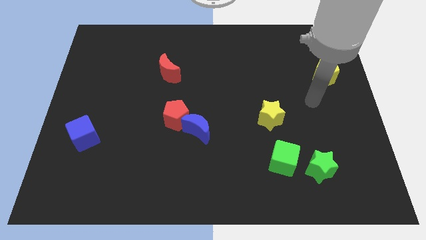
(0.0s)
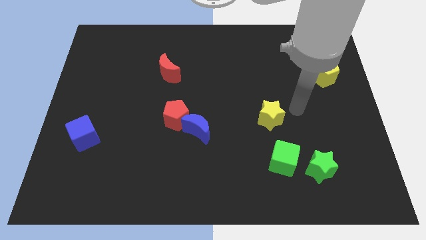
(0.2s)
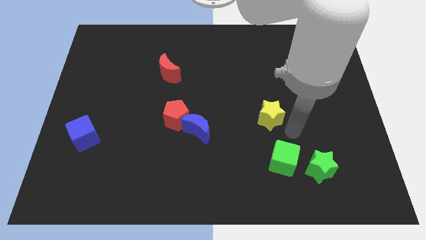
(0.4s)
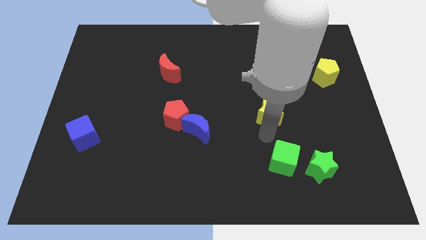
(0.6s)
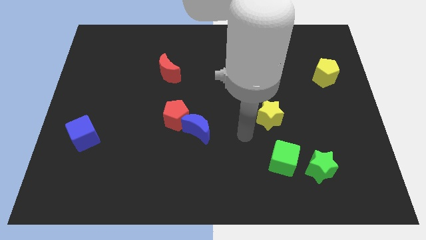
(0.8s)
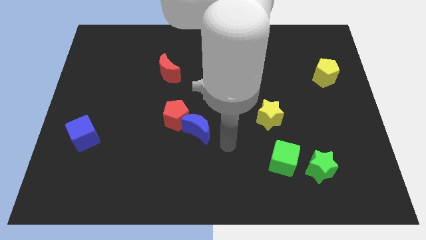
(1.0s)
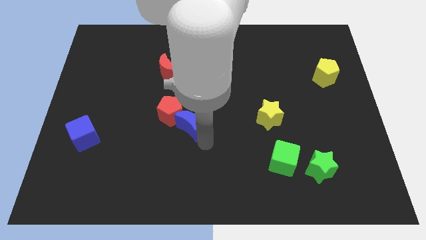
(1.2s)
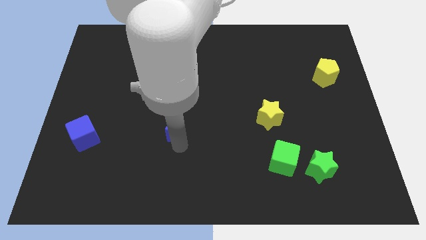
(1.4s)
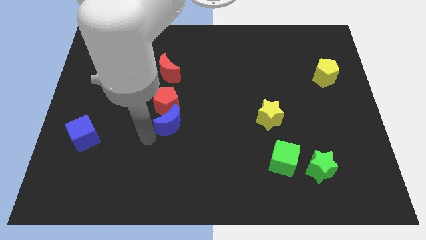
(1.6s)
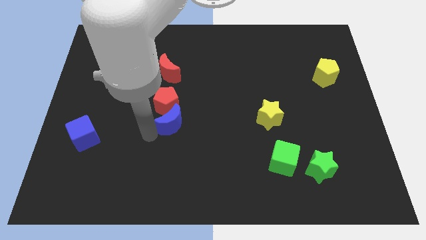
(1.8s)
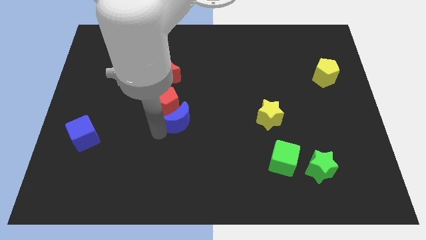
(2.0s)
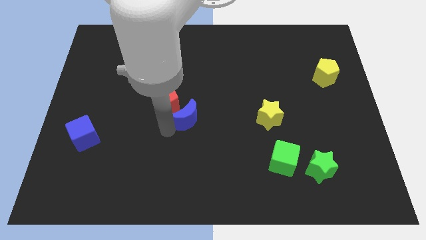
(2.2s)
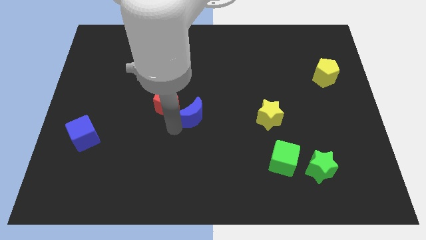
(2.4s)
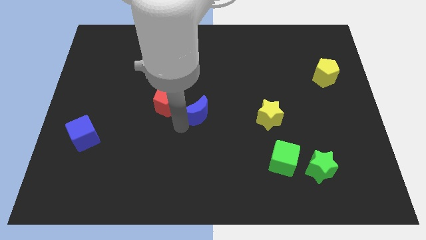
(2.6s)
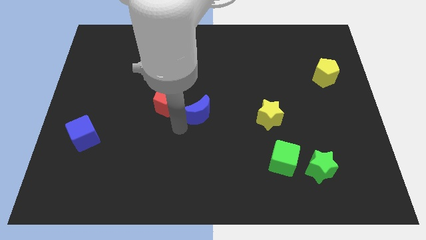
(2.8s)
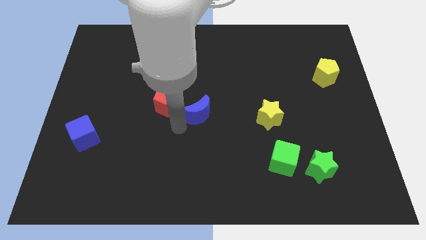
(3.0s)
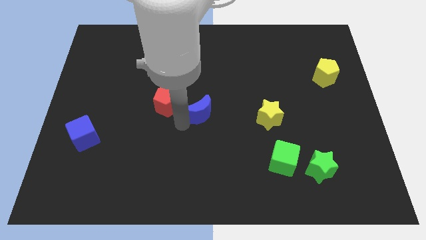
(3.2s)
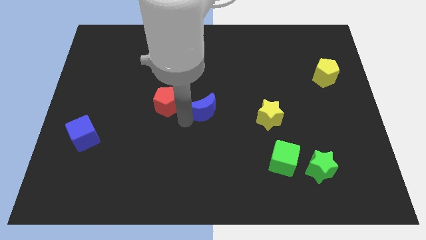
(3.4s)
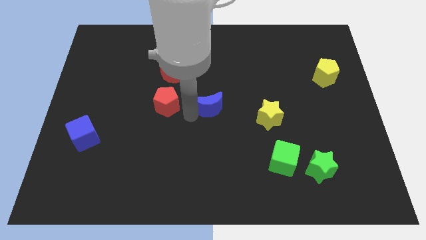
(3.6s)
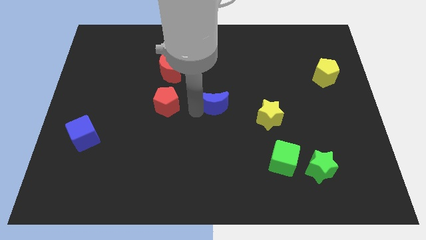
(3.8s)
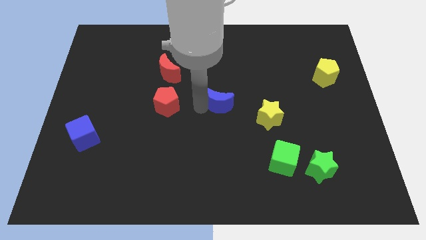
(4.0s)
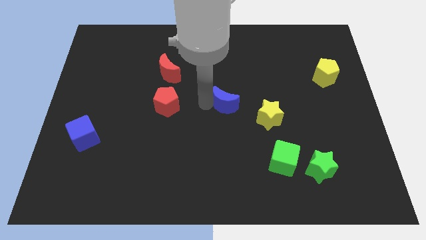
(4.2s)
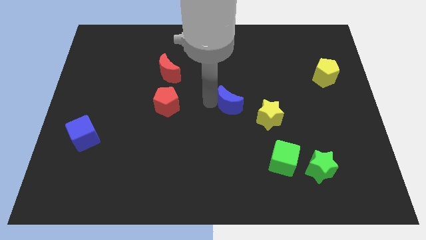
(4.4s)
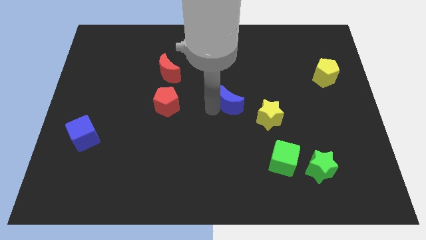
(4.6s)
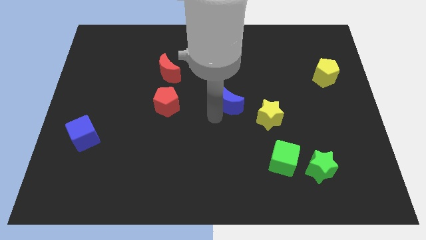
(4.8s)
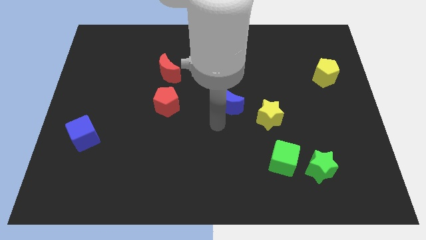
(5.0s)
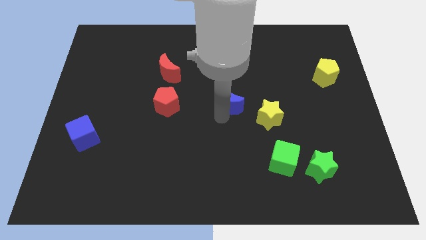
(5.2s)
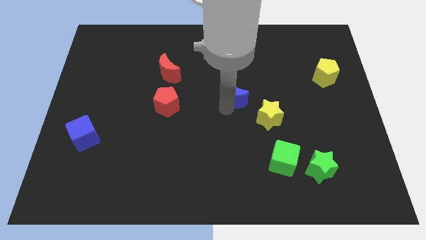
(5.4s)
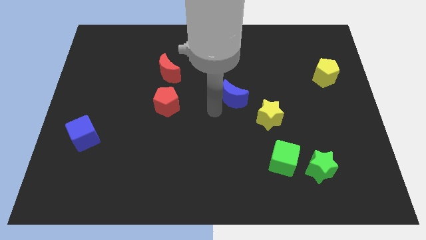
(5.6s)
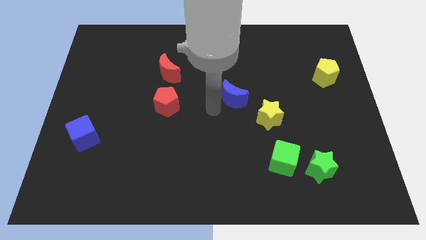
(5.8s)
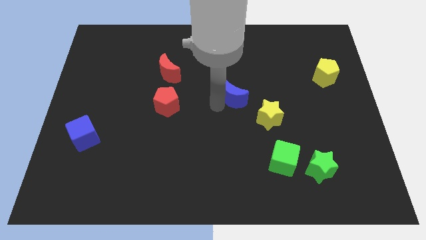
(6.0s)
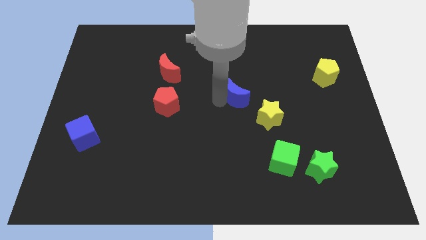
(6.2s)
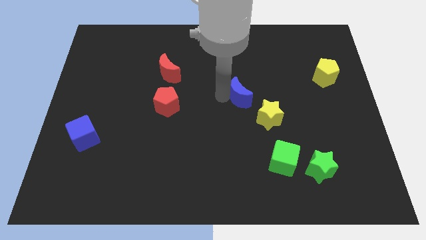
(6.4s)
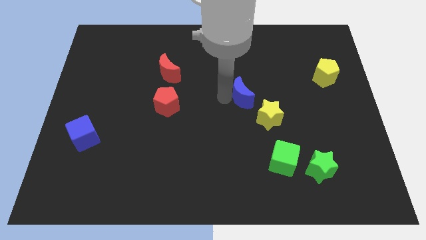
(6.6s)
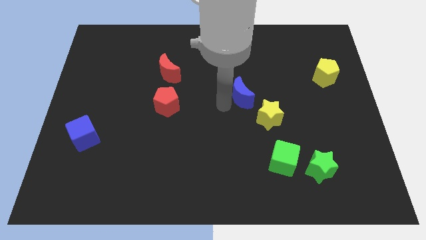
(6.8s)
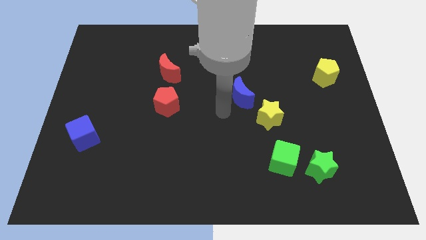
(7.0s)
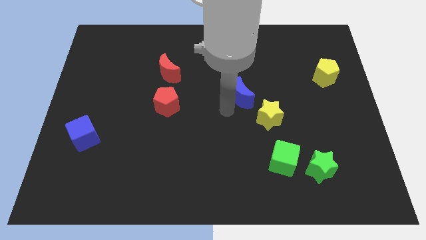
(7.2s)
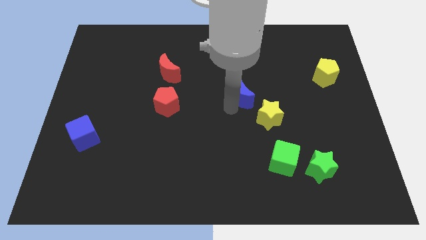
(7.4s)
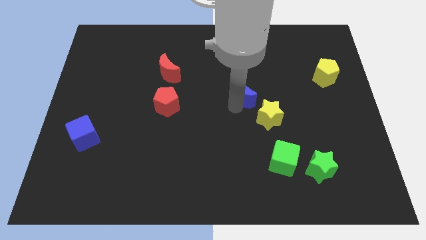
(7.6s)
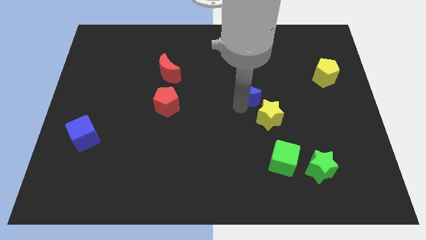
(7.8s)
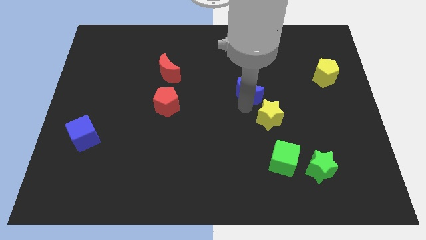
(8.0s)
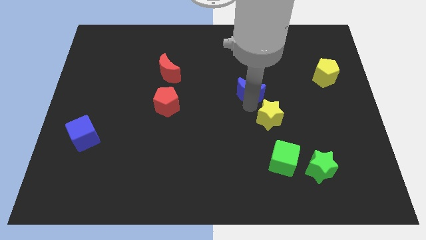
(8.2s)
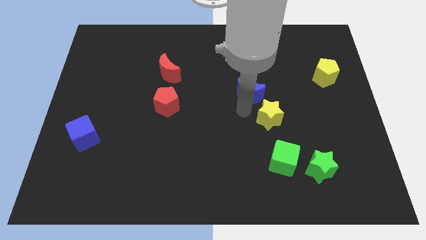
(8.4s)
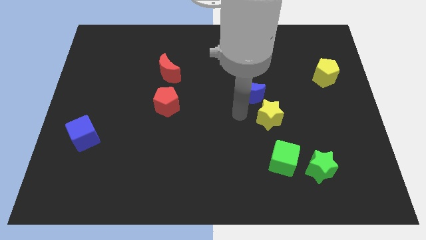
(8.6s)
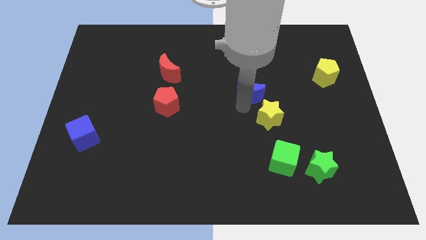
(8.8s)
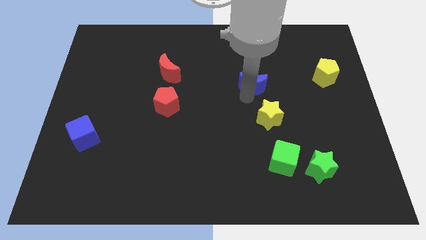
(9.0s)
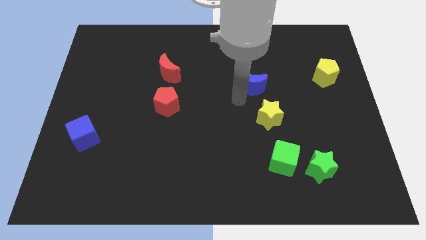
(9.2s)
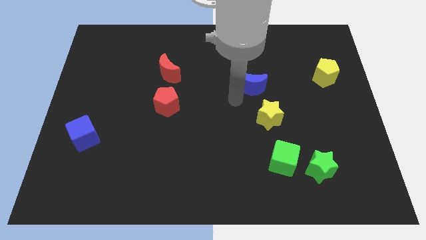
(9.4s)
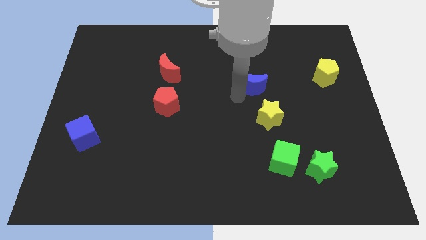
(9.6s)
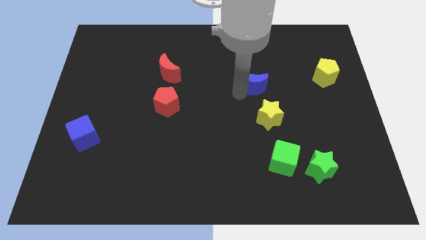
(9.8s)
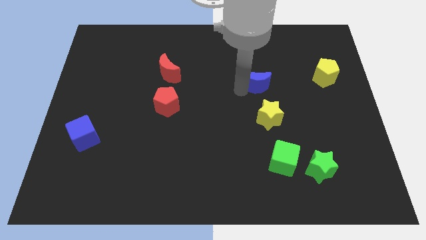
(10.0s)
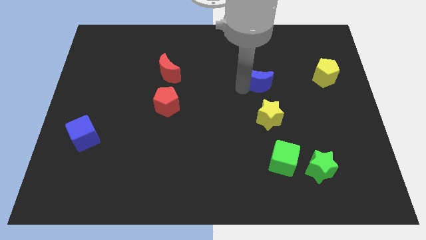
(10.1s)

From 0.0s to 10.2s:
slide the blue moon up and to the right

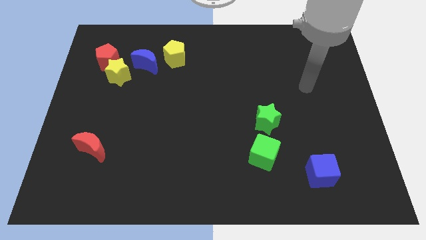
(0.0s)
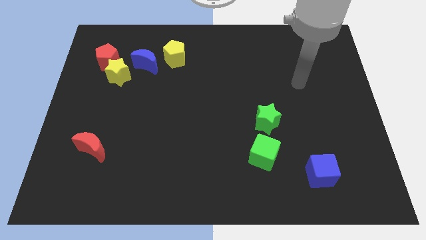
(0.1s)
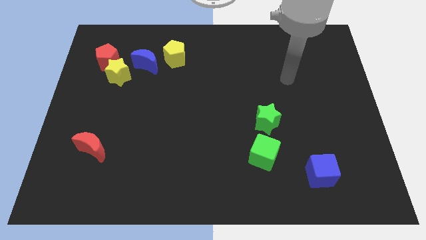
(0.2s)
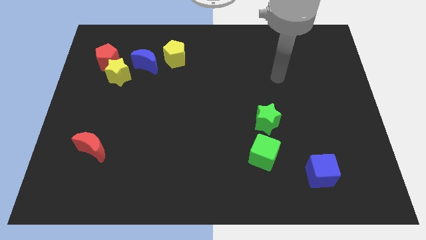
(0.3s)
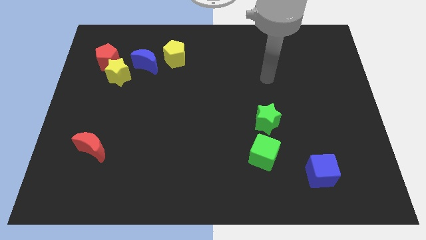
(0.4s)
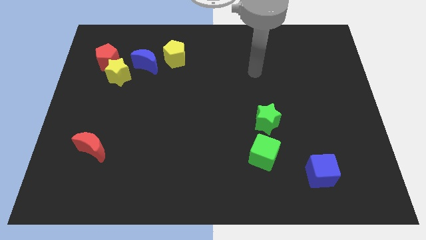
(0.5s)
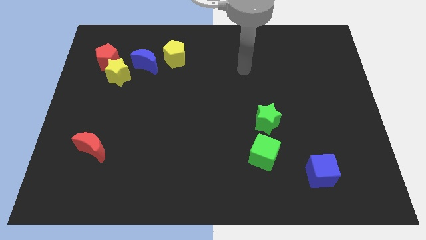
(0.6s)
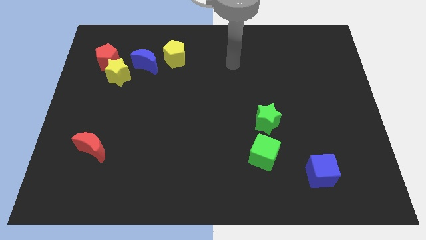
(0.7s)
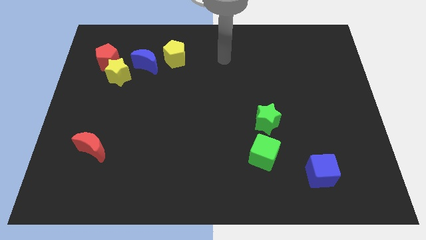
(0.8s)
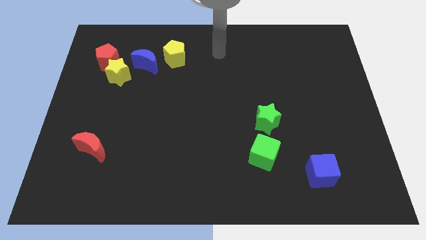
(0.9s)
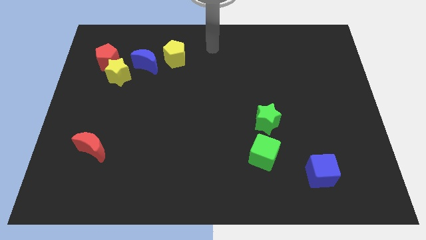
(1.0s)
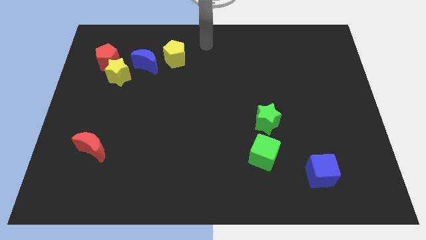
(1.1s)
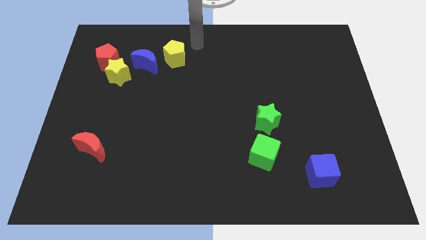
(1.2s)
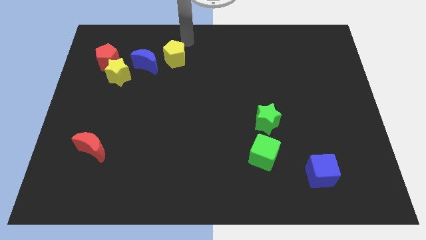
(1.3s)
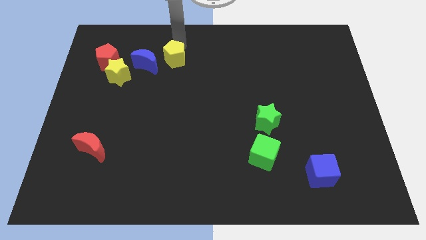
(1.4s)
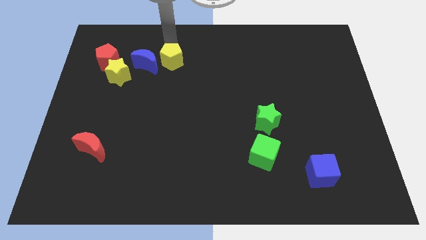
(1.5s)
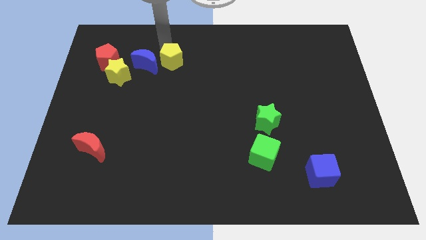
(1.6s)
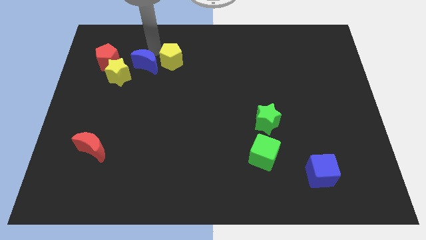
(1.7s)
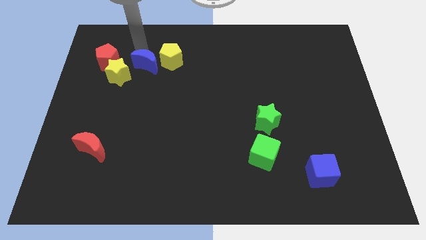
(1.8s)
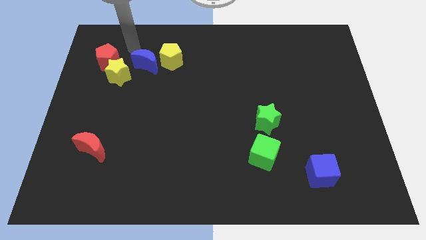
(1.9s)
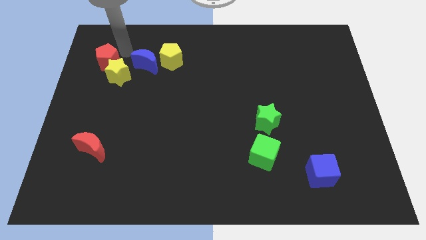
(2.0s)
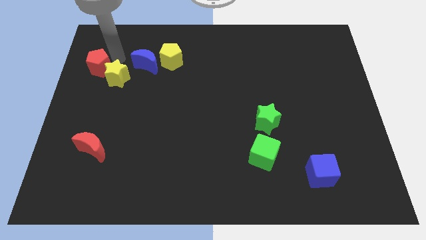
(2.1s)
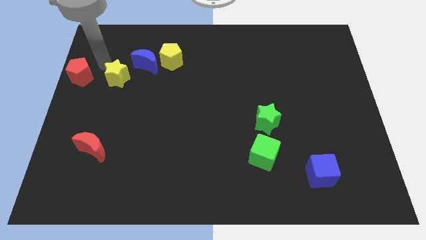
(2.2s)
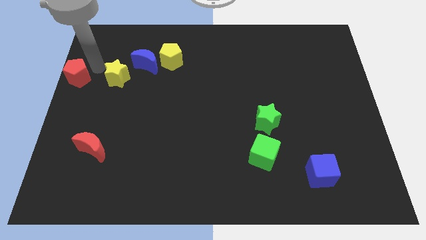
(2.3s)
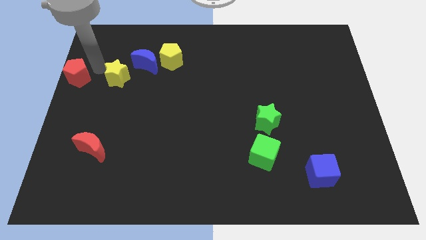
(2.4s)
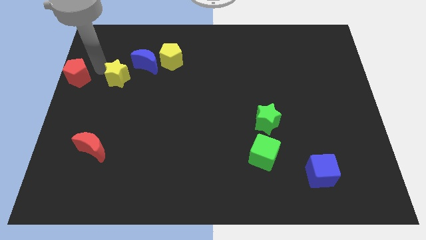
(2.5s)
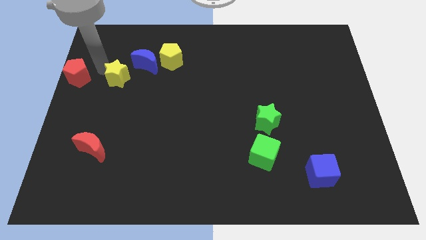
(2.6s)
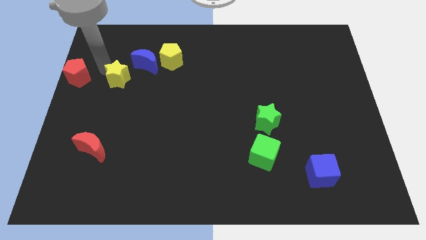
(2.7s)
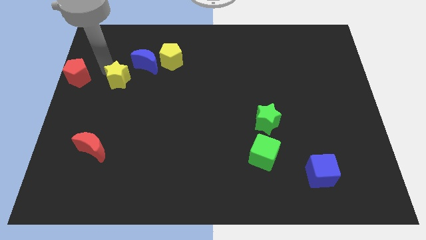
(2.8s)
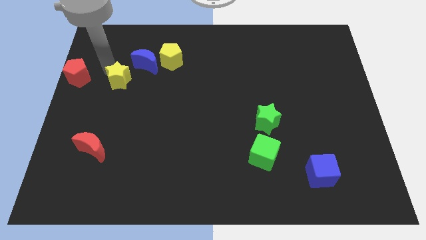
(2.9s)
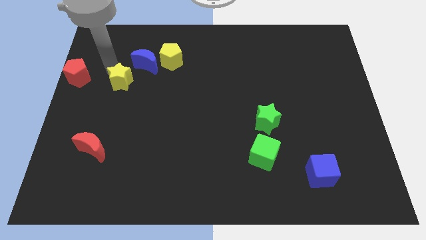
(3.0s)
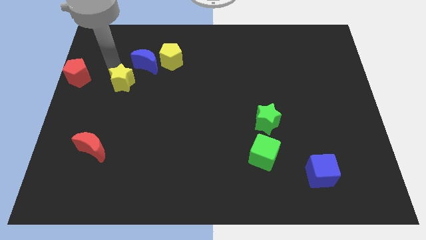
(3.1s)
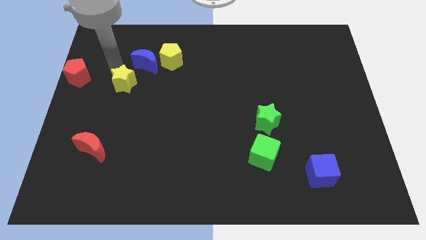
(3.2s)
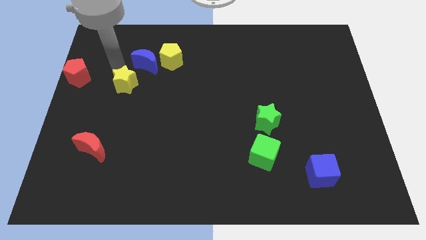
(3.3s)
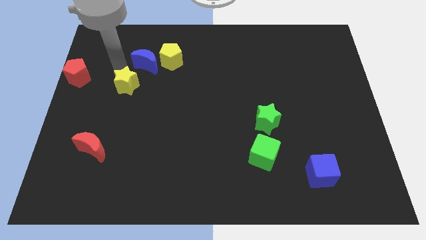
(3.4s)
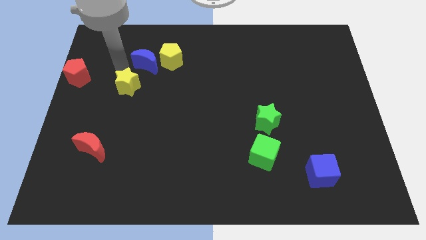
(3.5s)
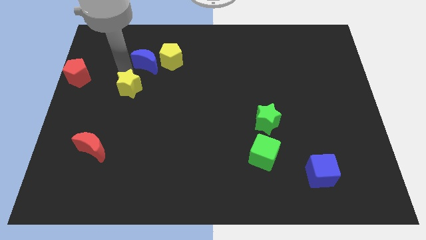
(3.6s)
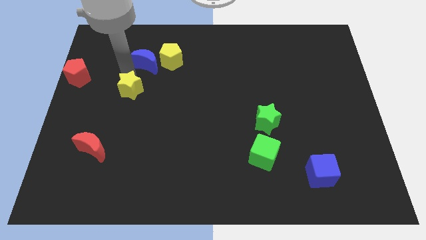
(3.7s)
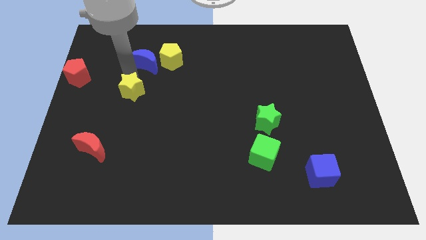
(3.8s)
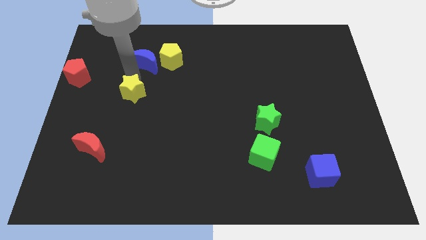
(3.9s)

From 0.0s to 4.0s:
slightly push the yellow star down and then right
